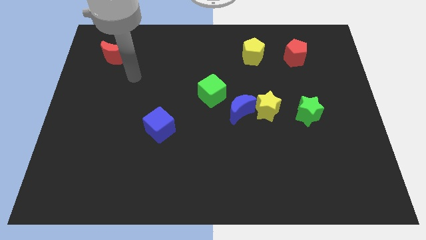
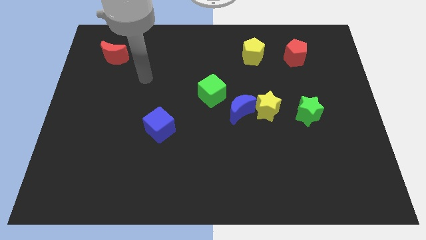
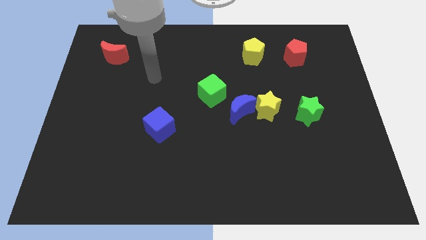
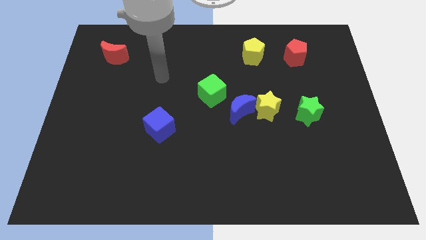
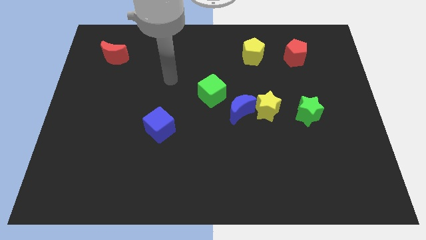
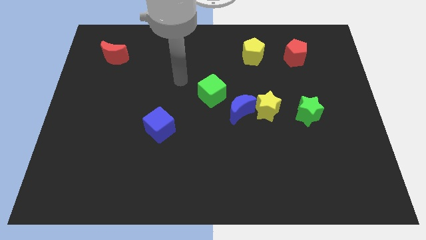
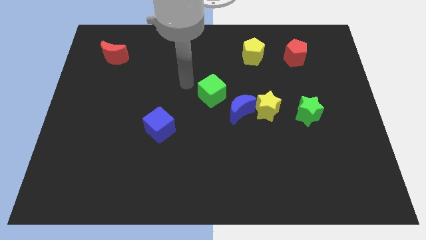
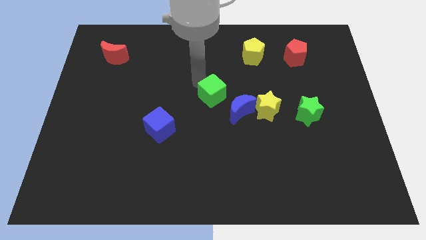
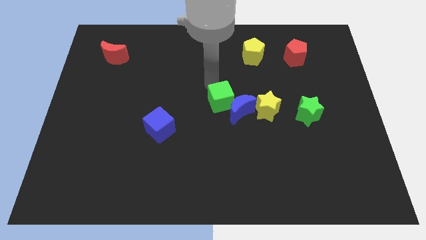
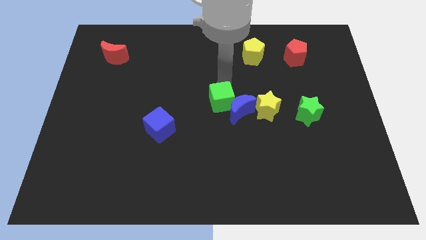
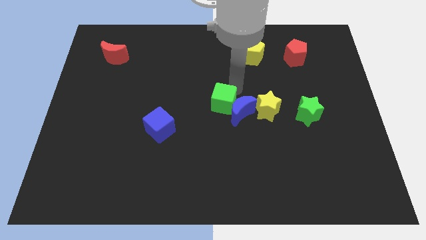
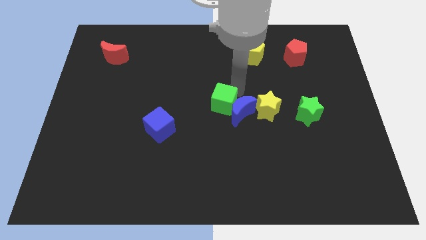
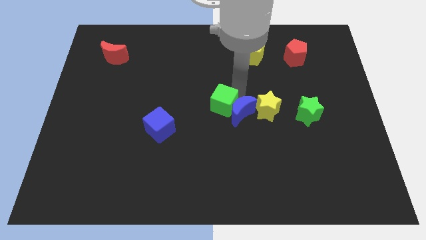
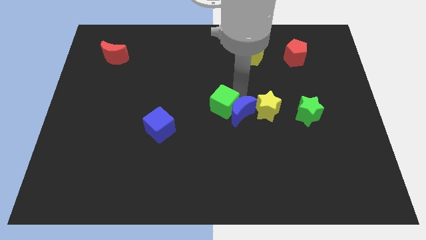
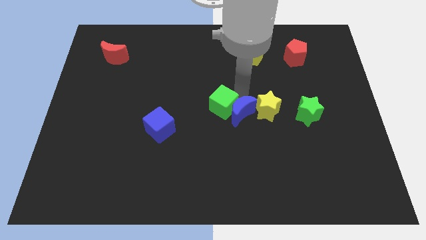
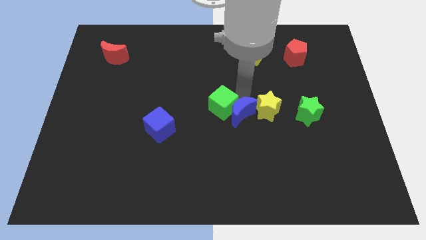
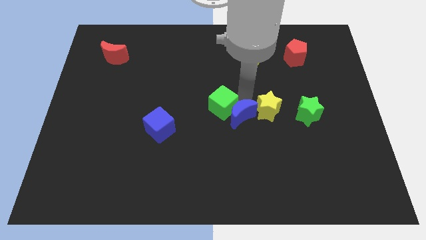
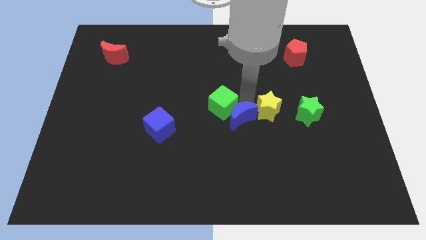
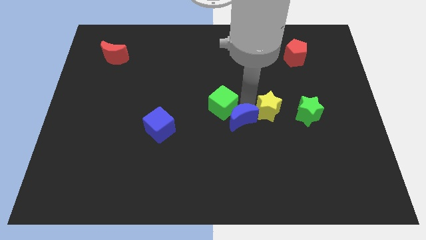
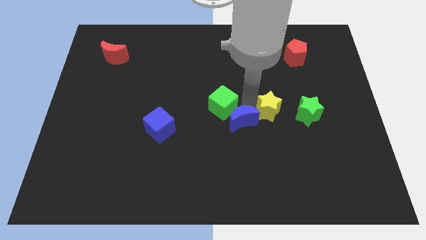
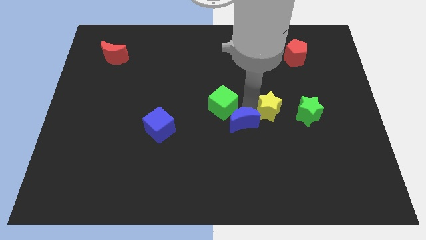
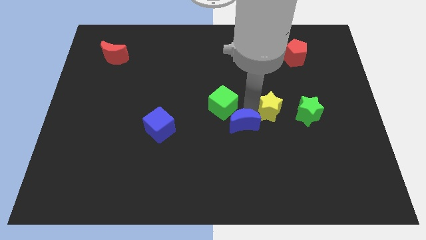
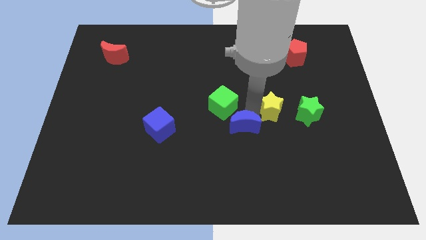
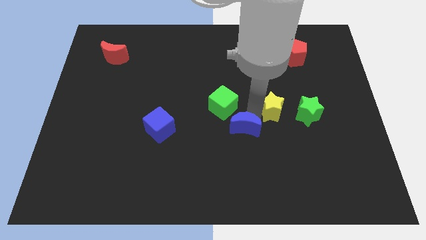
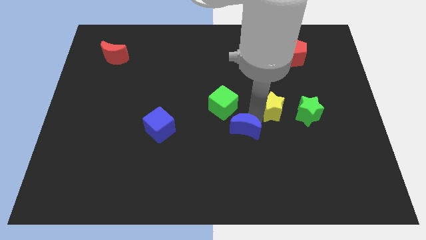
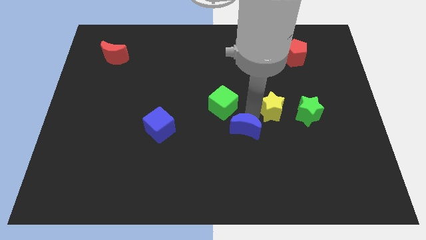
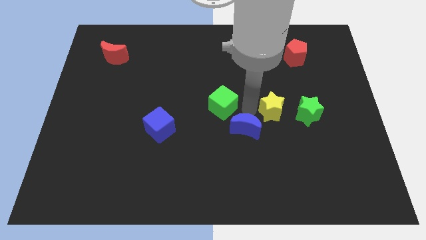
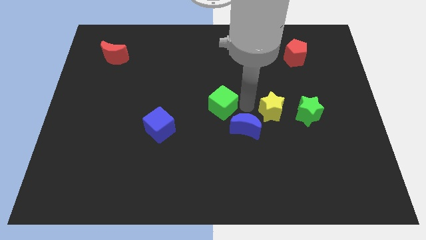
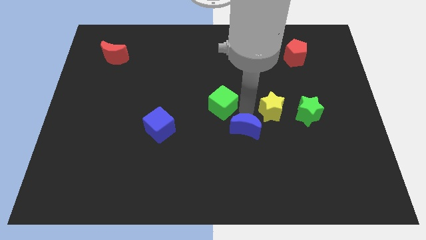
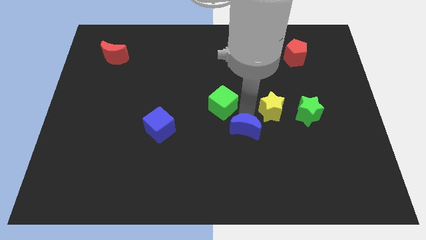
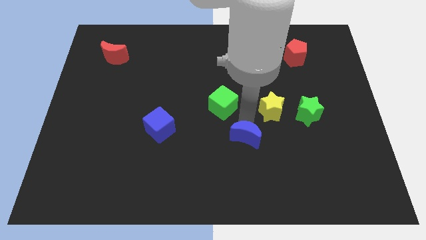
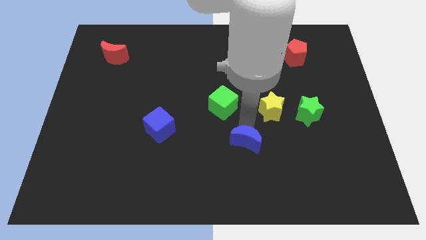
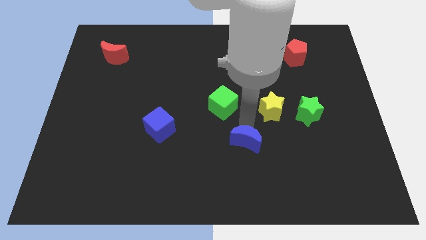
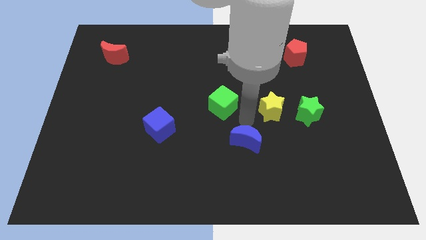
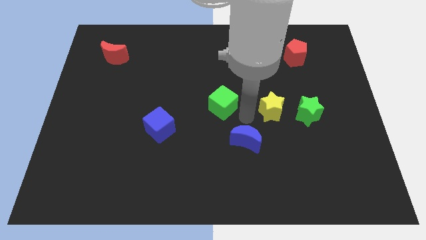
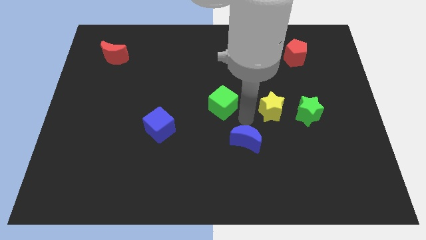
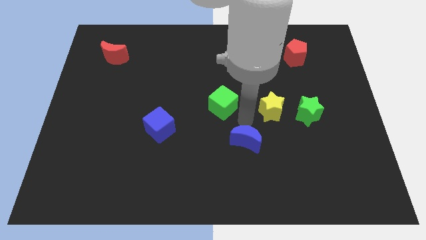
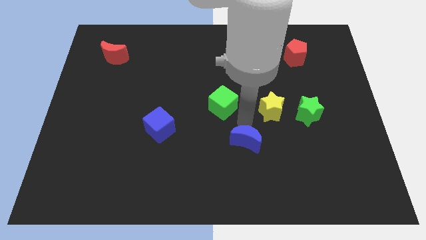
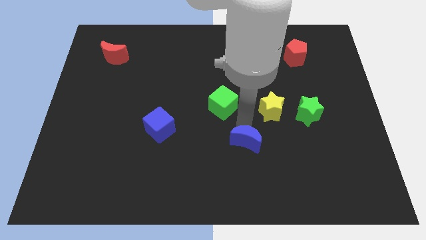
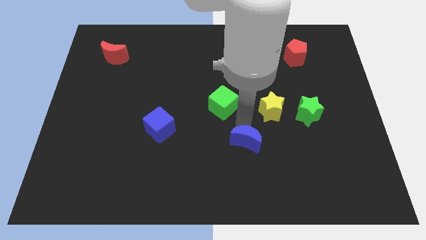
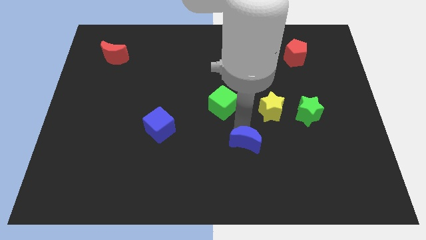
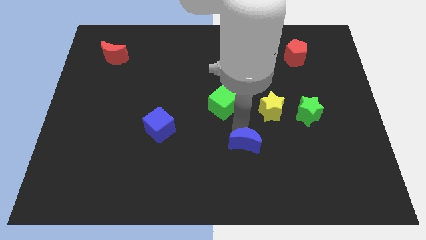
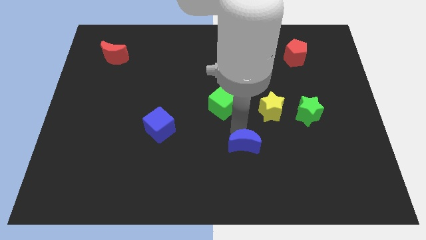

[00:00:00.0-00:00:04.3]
pull the blue moon apart from the yellow star and green cube

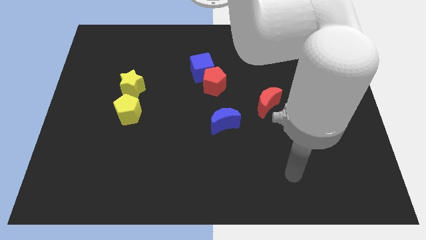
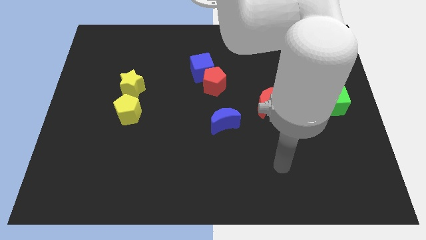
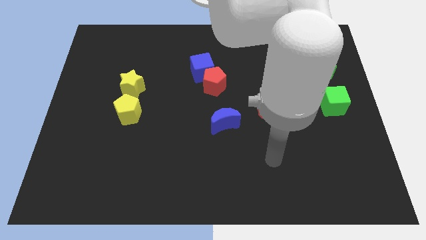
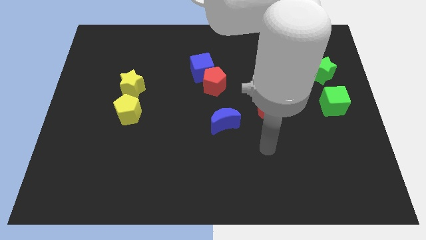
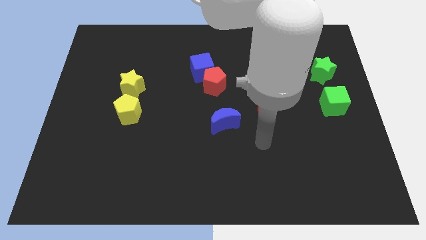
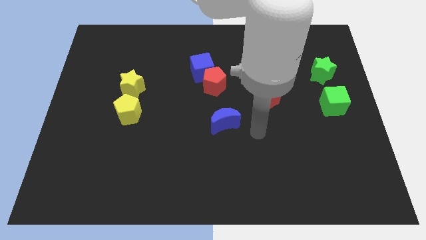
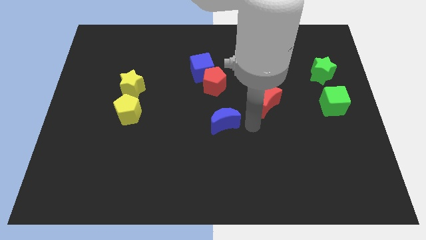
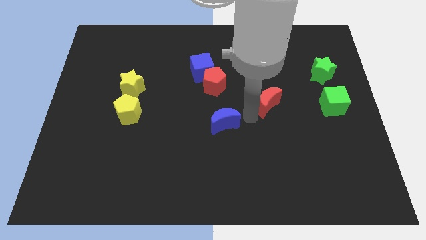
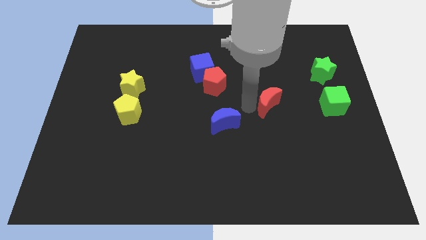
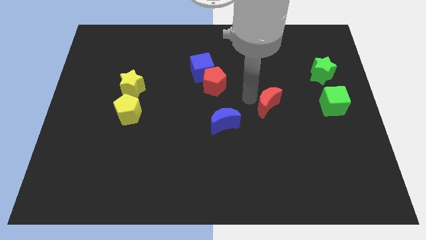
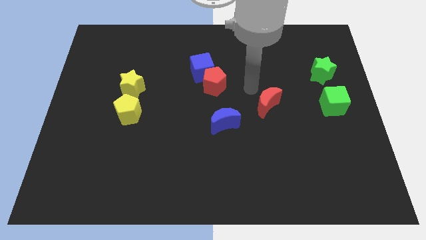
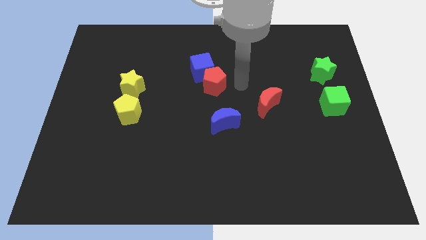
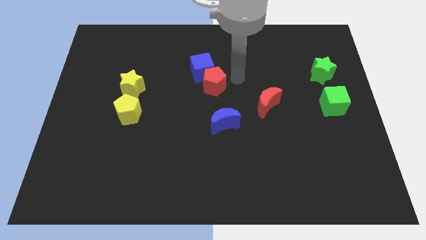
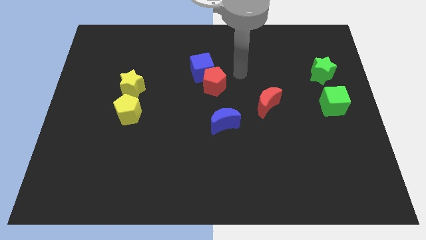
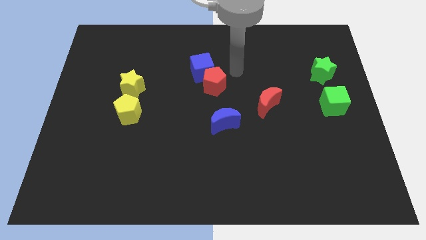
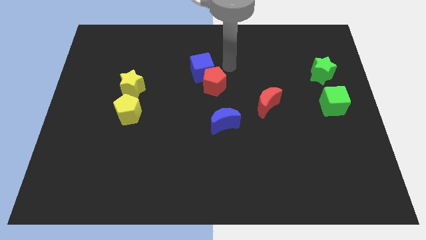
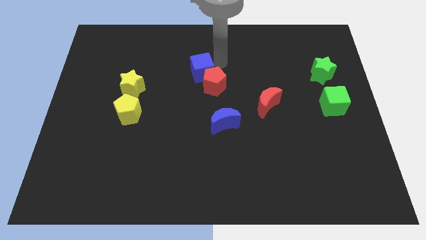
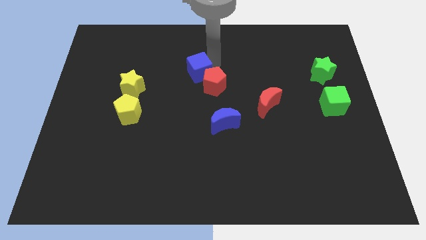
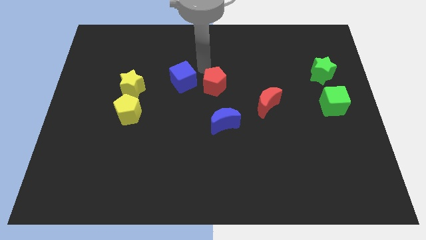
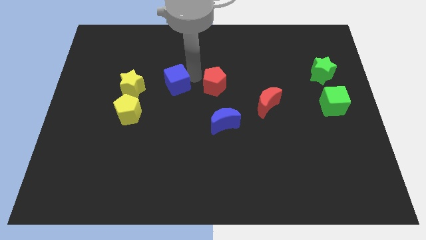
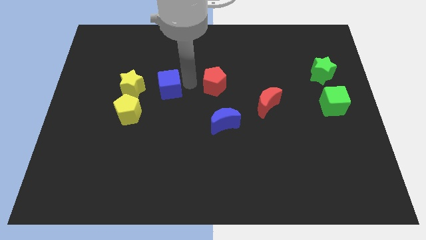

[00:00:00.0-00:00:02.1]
move the red pentagon away from the blue cube

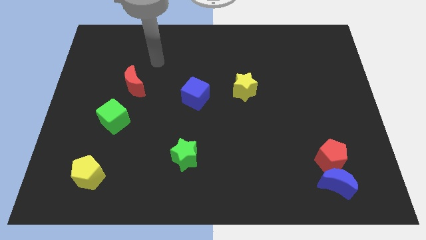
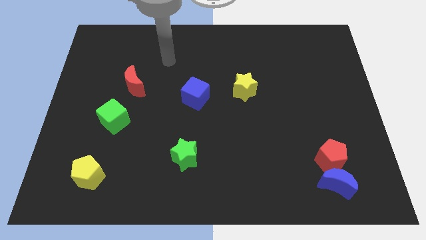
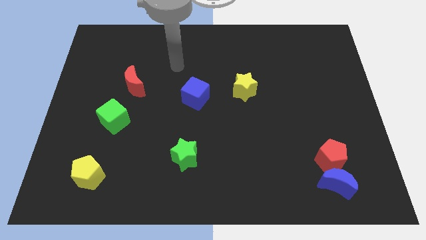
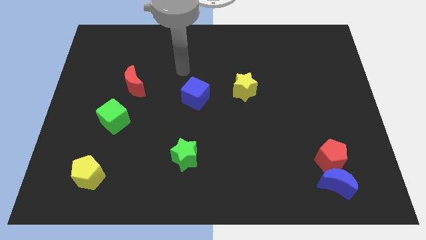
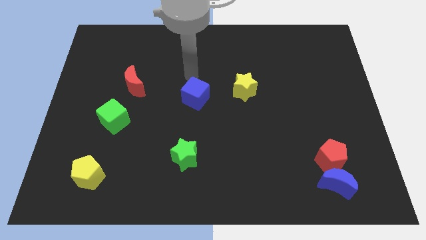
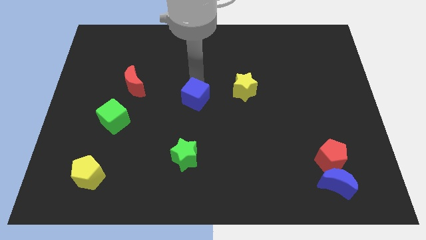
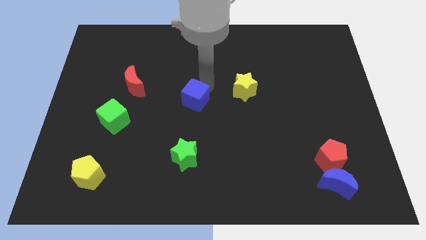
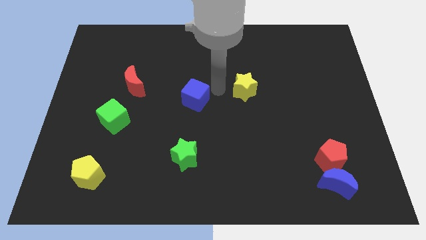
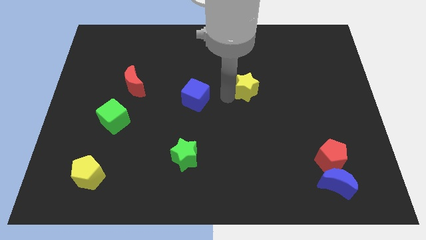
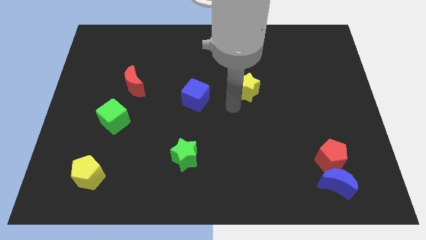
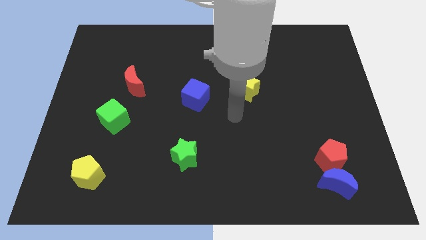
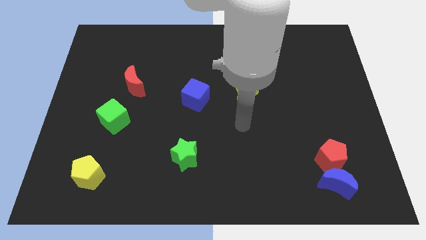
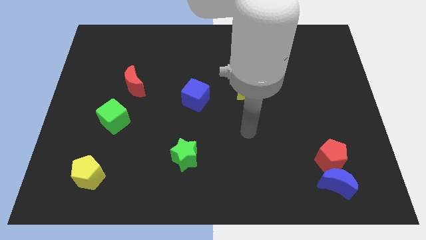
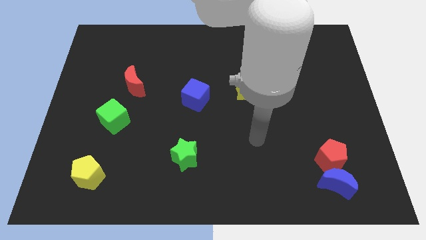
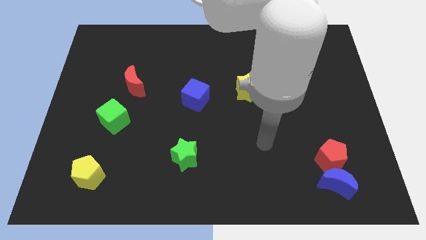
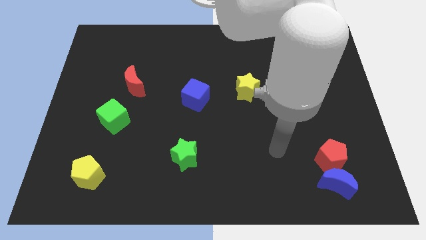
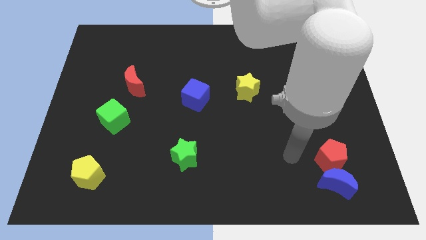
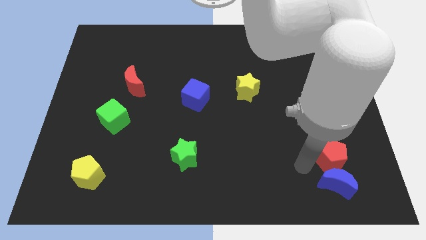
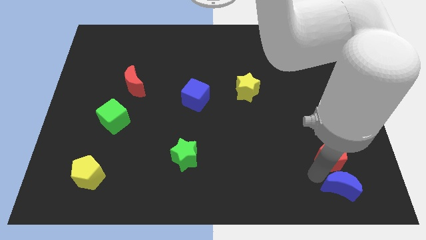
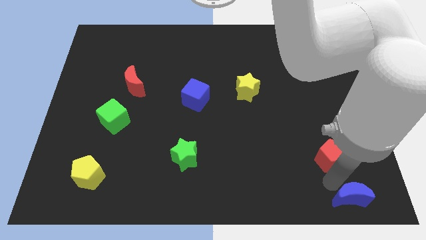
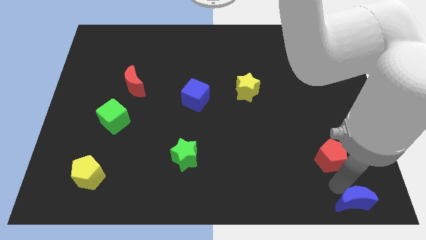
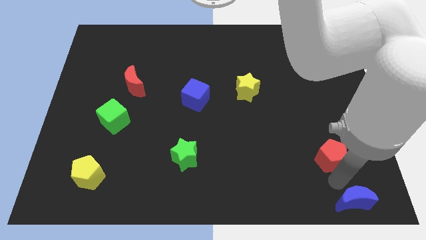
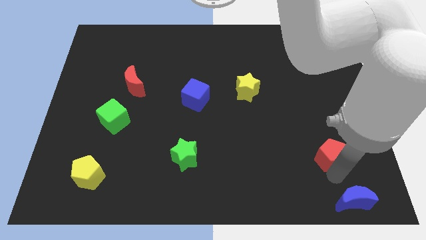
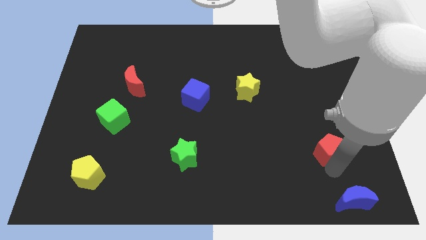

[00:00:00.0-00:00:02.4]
pull the red pentagon apart from the blue moon

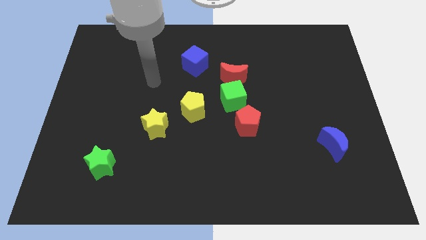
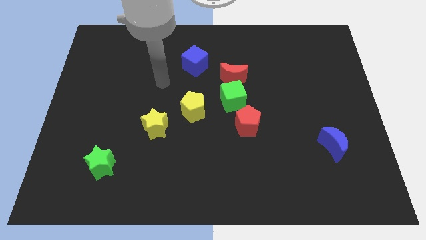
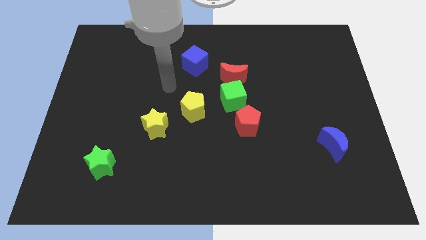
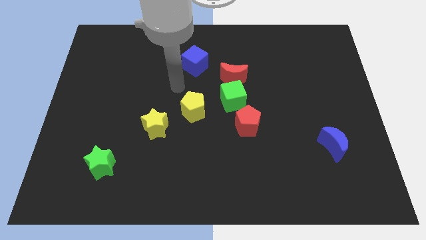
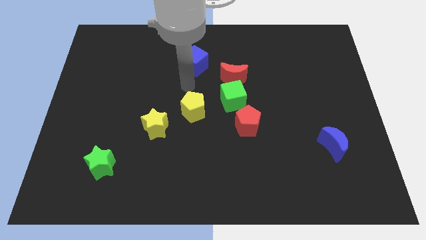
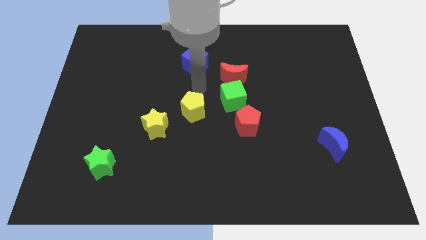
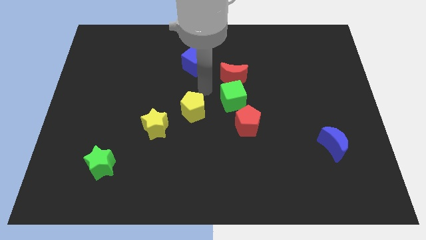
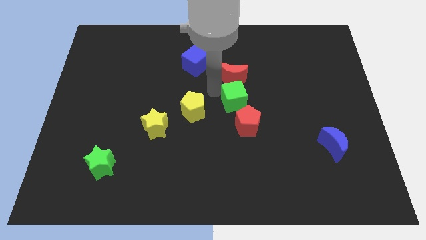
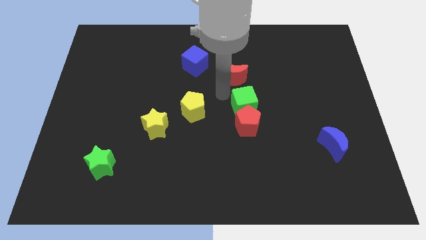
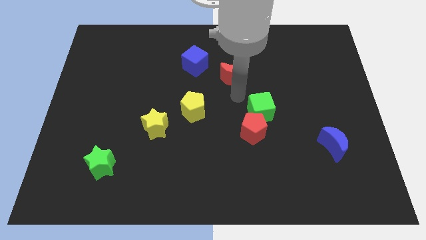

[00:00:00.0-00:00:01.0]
move the red moon away from the green cube
